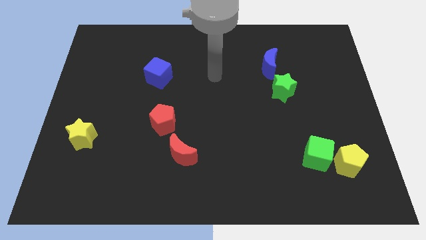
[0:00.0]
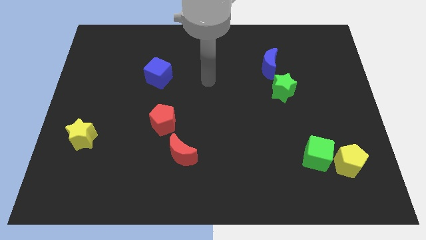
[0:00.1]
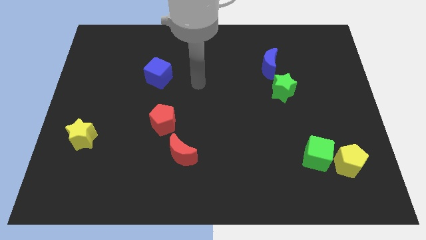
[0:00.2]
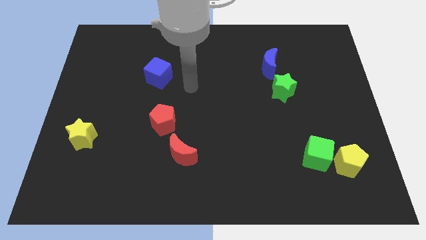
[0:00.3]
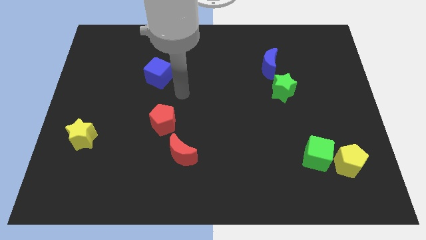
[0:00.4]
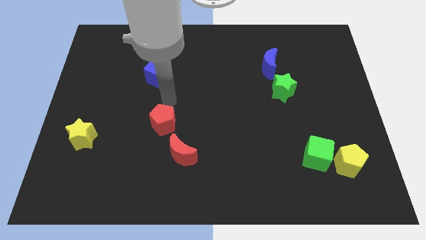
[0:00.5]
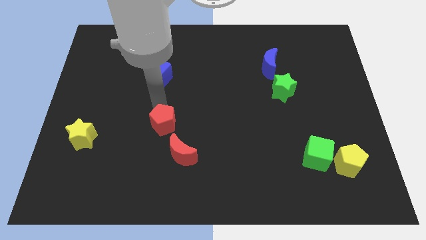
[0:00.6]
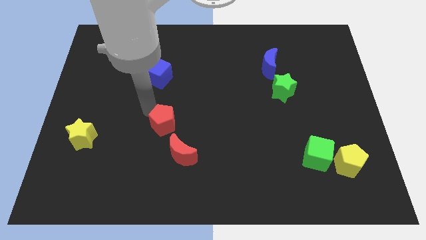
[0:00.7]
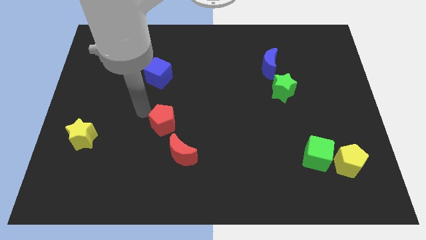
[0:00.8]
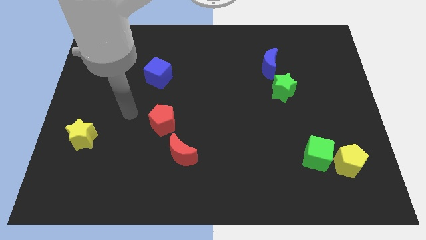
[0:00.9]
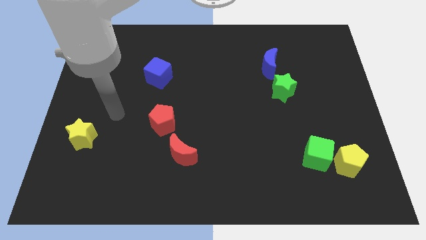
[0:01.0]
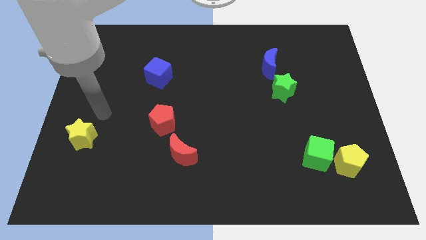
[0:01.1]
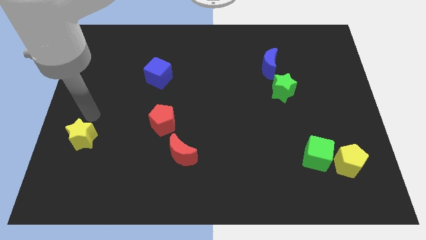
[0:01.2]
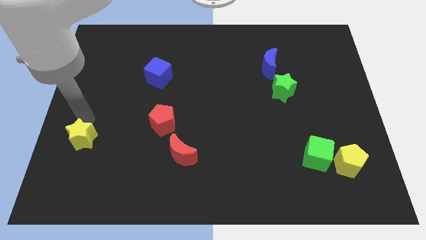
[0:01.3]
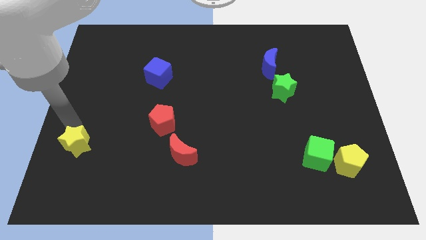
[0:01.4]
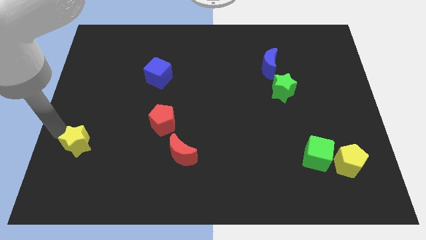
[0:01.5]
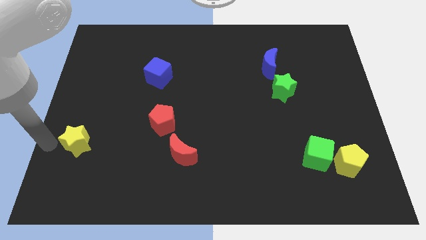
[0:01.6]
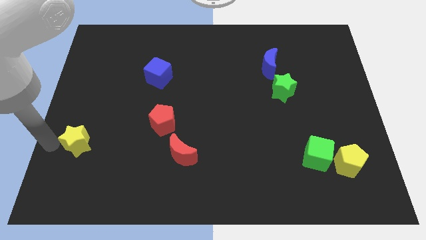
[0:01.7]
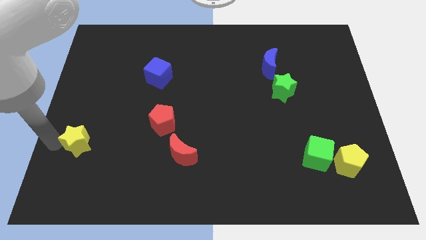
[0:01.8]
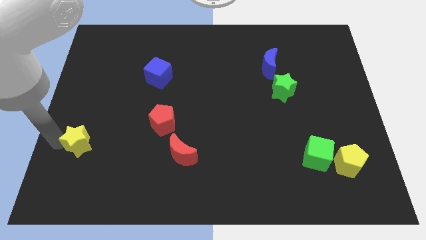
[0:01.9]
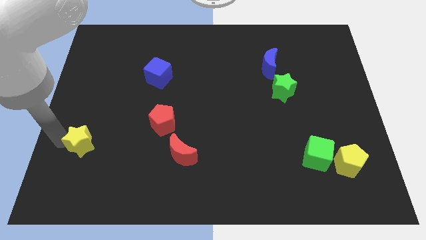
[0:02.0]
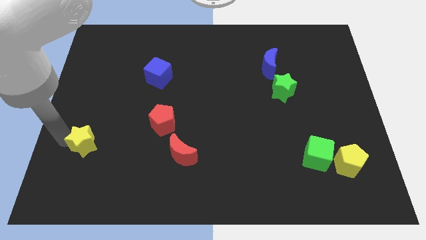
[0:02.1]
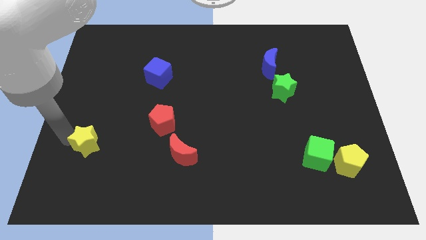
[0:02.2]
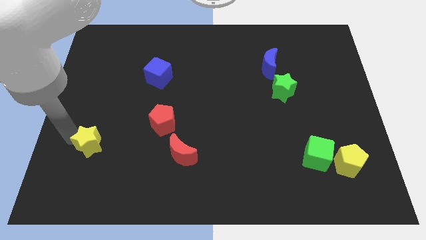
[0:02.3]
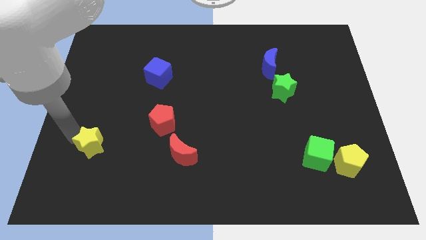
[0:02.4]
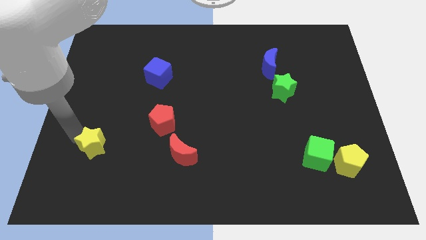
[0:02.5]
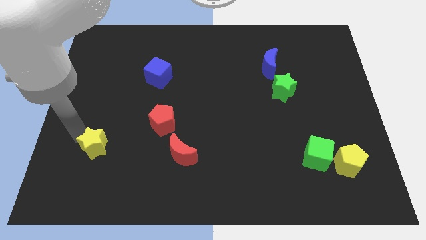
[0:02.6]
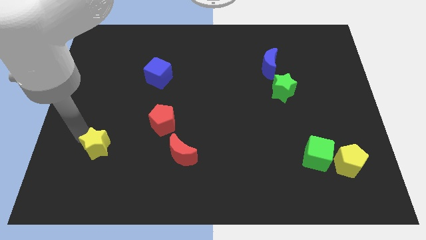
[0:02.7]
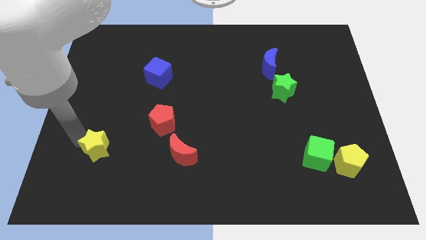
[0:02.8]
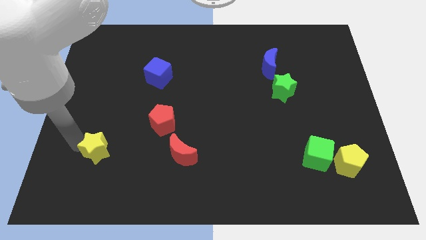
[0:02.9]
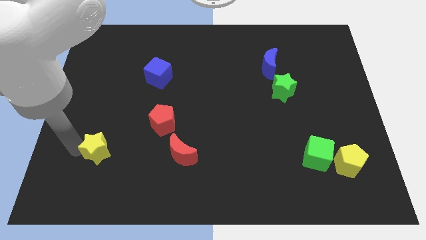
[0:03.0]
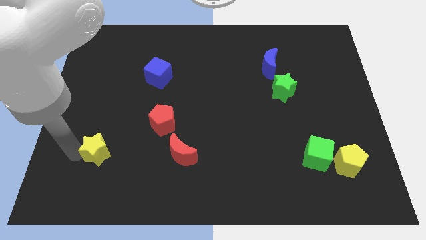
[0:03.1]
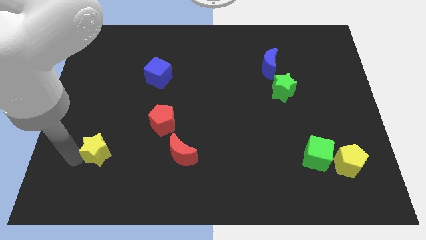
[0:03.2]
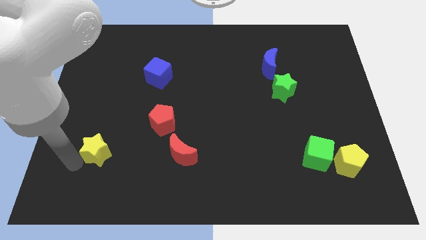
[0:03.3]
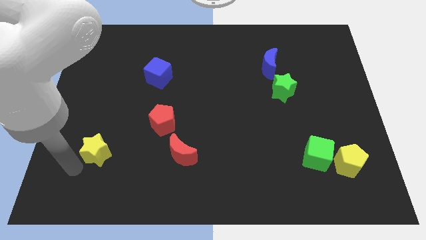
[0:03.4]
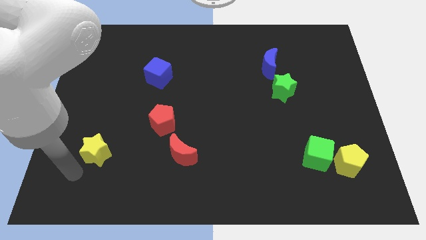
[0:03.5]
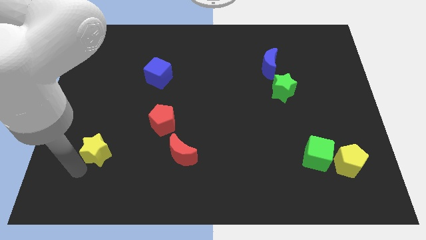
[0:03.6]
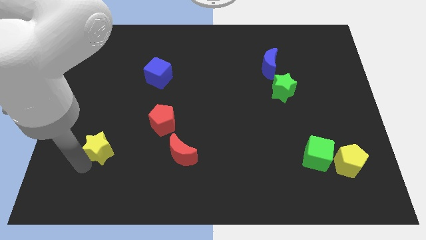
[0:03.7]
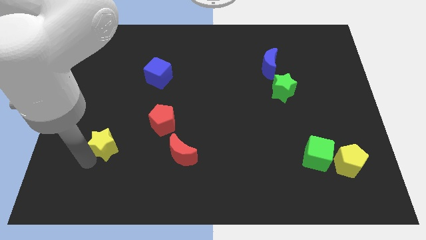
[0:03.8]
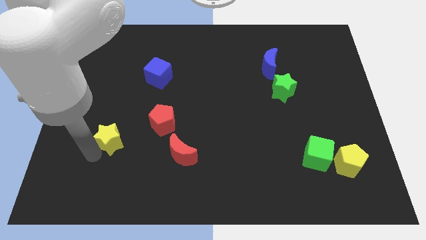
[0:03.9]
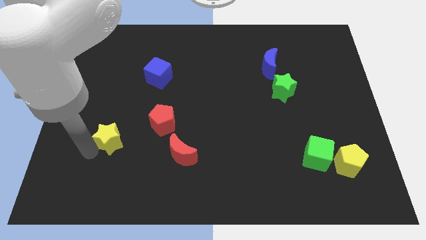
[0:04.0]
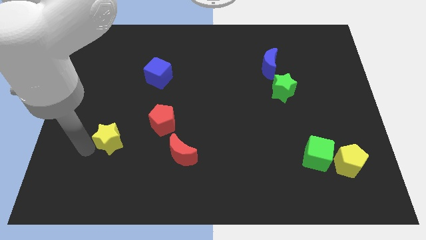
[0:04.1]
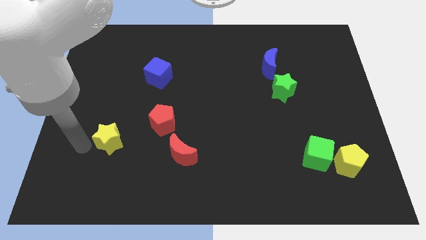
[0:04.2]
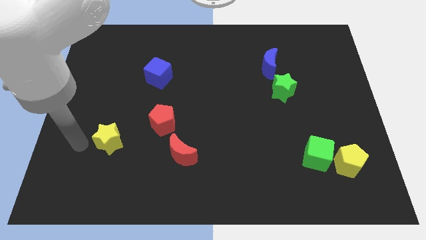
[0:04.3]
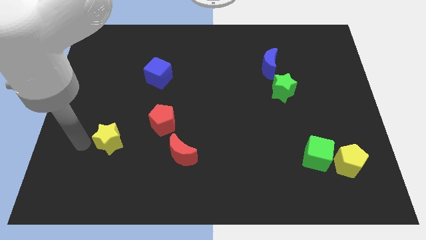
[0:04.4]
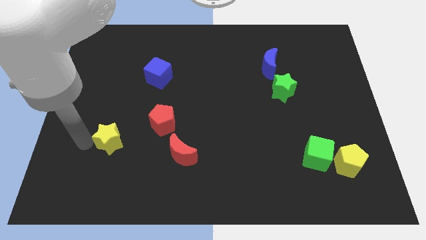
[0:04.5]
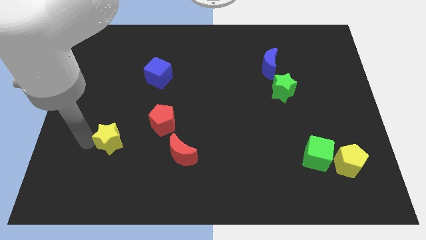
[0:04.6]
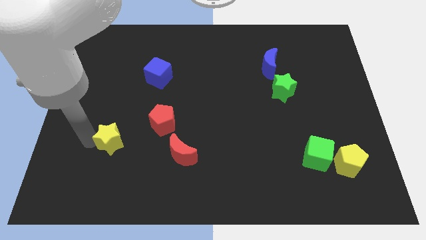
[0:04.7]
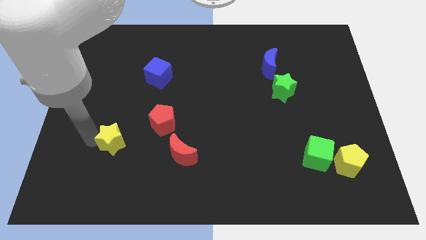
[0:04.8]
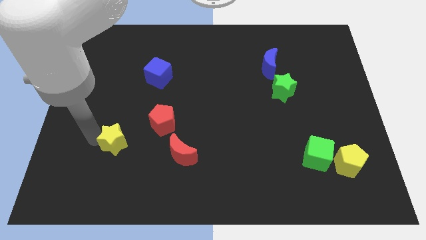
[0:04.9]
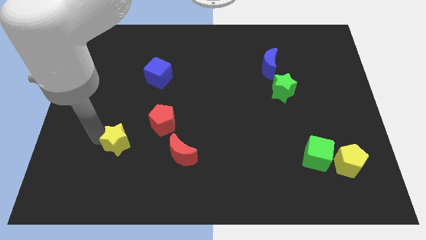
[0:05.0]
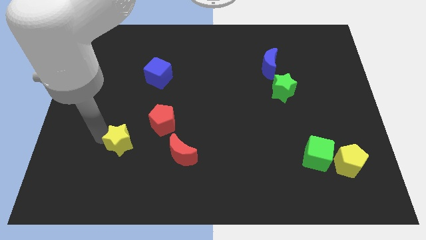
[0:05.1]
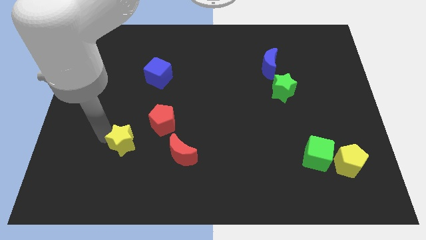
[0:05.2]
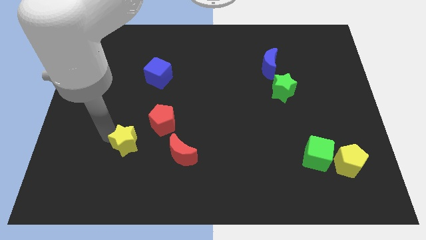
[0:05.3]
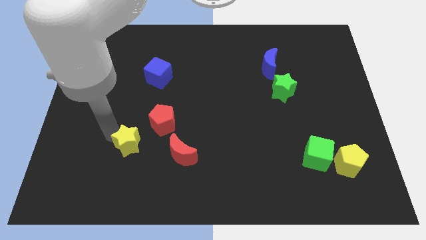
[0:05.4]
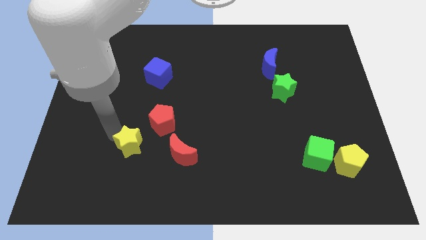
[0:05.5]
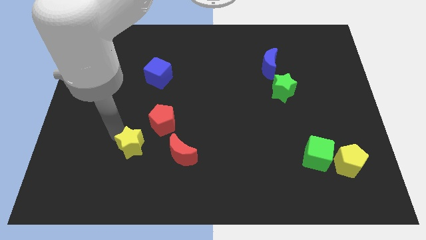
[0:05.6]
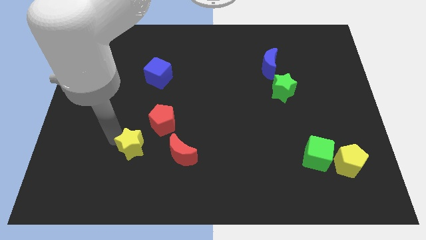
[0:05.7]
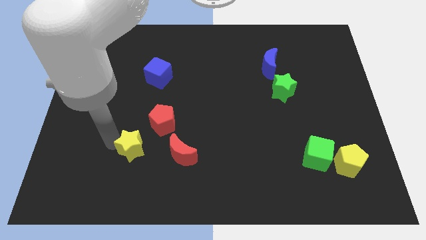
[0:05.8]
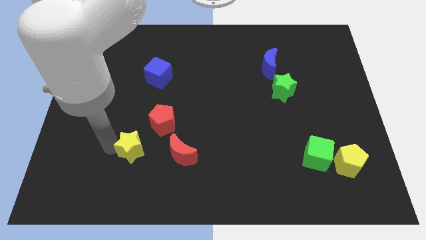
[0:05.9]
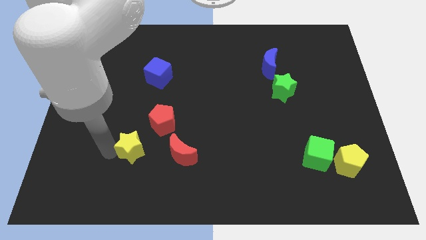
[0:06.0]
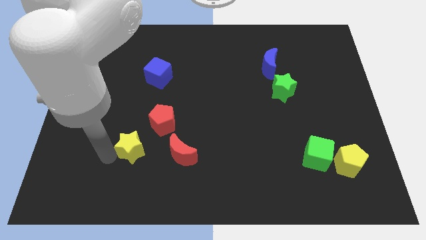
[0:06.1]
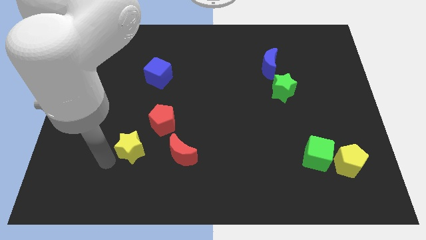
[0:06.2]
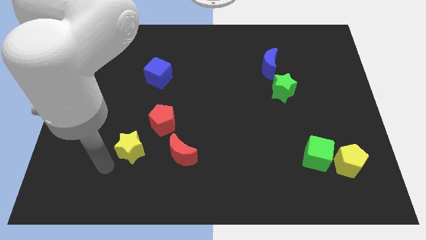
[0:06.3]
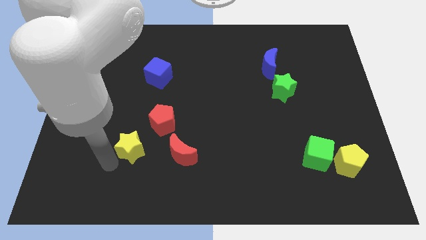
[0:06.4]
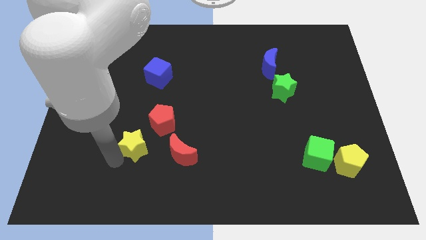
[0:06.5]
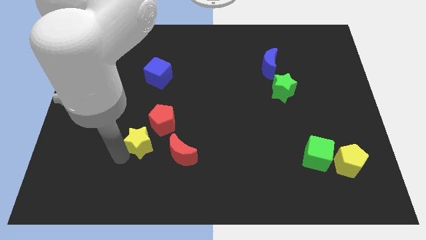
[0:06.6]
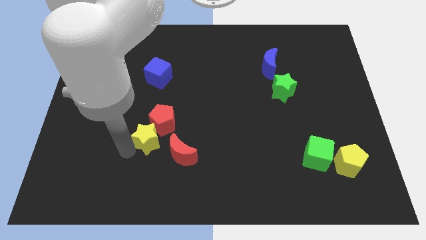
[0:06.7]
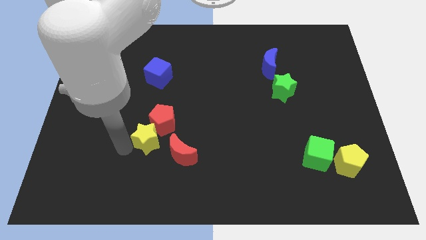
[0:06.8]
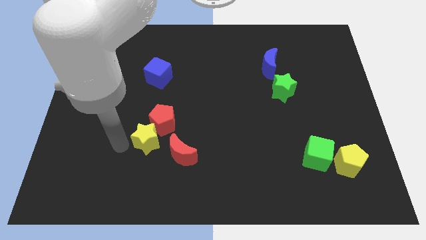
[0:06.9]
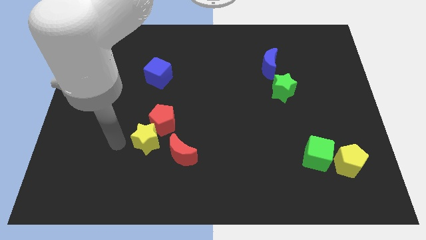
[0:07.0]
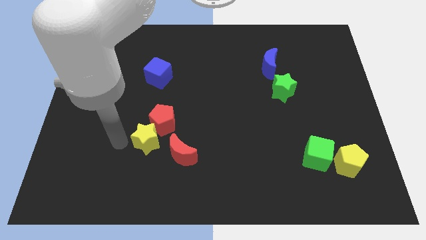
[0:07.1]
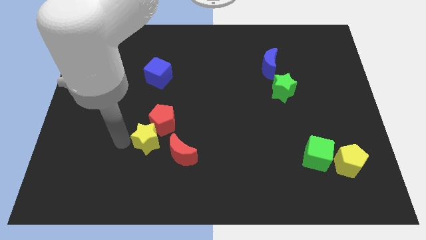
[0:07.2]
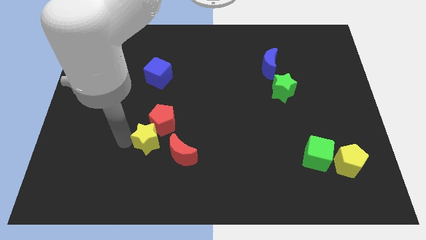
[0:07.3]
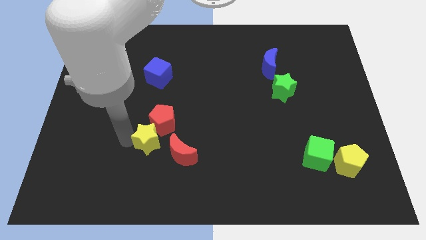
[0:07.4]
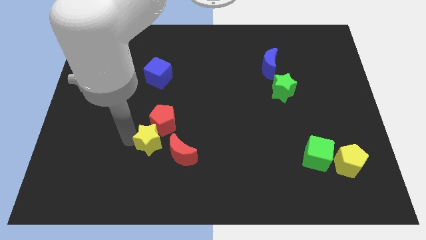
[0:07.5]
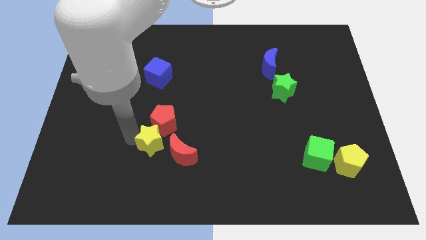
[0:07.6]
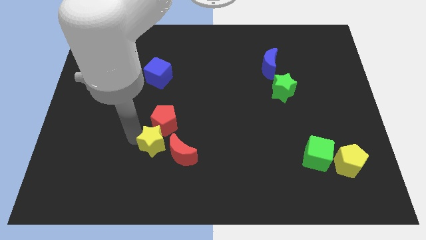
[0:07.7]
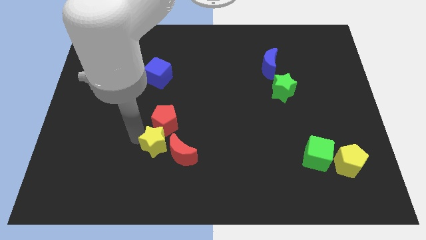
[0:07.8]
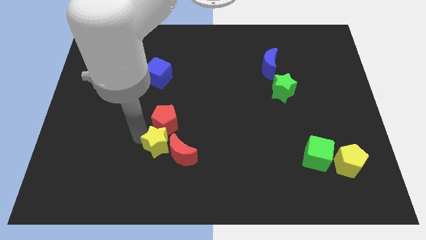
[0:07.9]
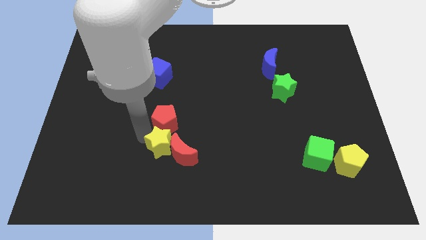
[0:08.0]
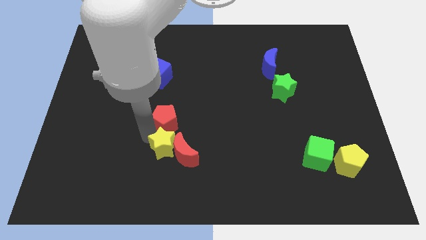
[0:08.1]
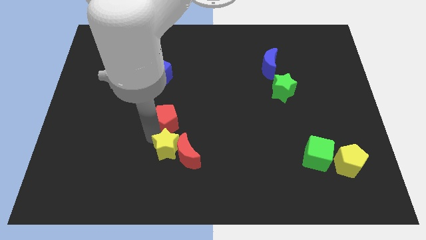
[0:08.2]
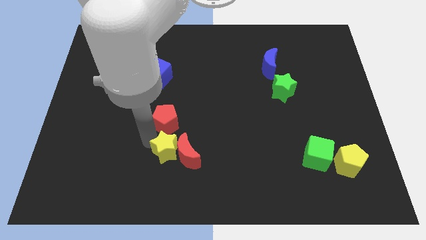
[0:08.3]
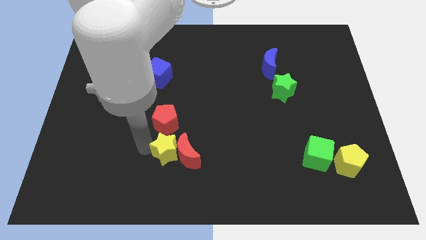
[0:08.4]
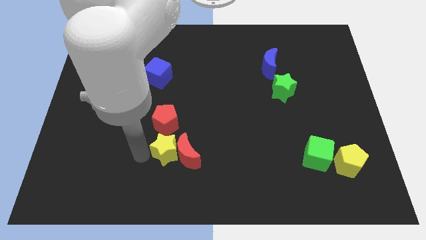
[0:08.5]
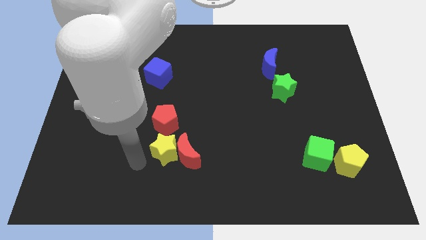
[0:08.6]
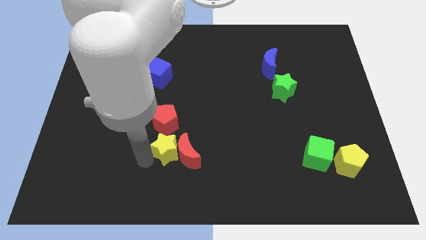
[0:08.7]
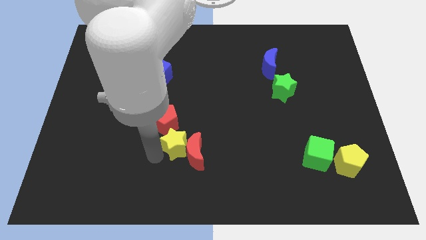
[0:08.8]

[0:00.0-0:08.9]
slide the yellow star right
